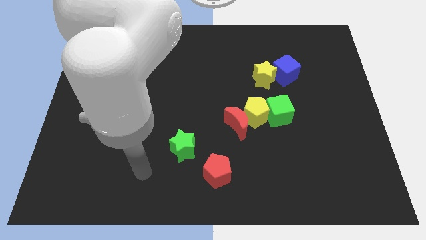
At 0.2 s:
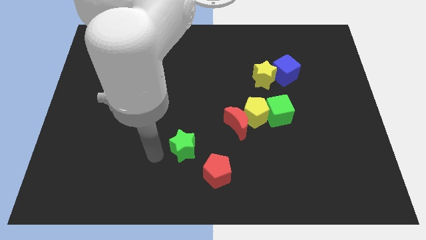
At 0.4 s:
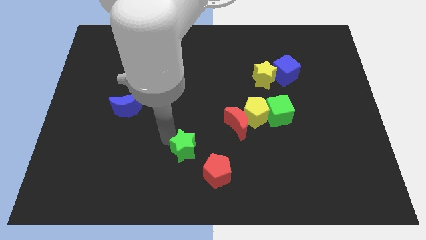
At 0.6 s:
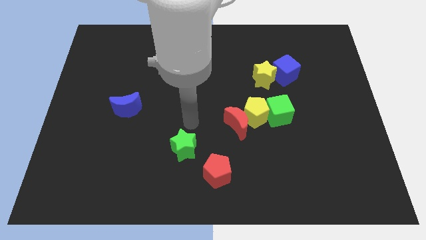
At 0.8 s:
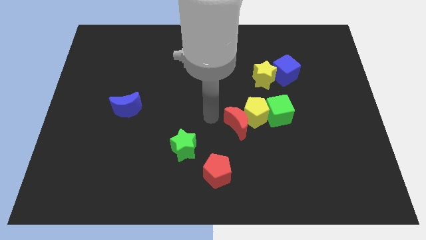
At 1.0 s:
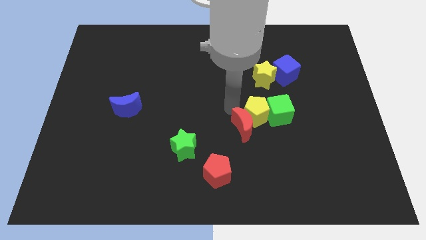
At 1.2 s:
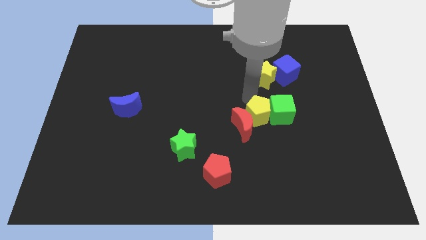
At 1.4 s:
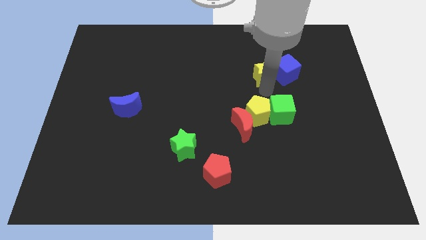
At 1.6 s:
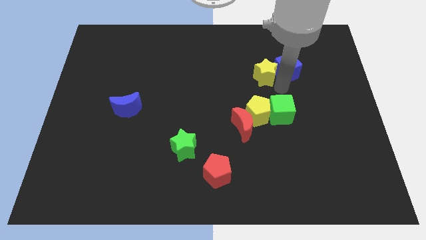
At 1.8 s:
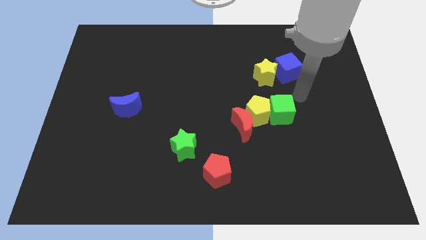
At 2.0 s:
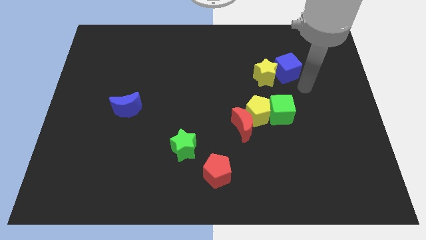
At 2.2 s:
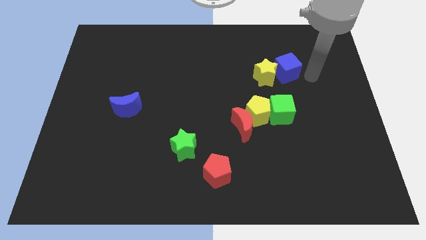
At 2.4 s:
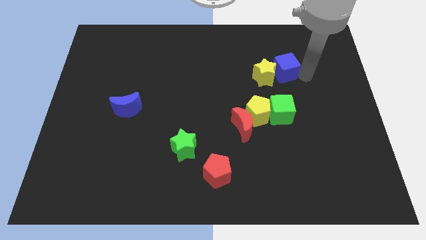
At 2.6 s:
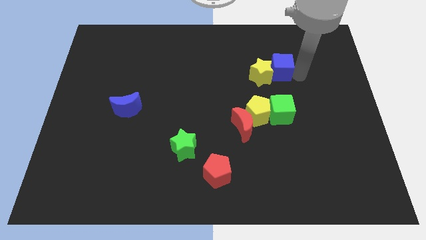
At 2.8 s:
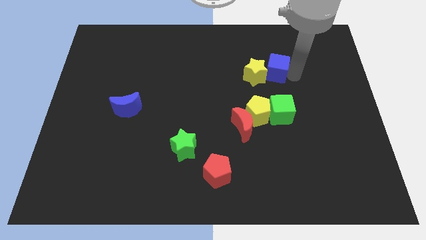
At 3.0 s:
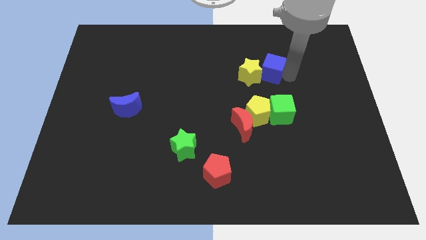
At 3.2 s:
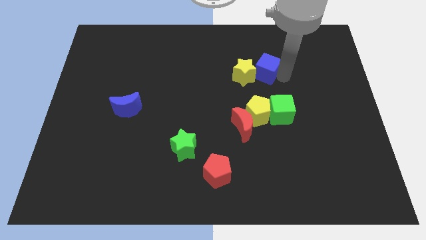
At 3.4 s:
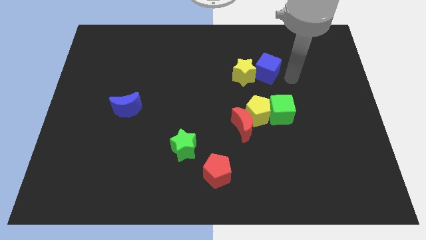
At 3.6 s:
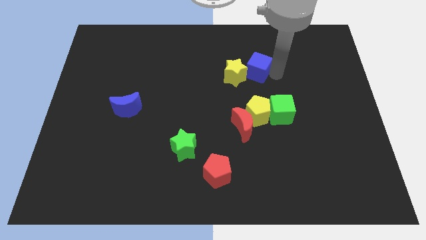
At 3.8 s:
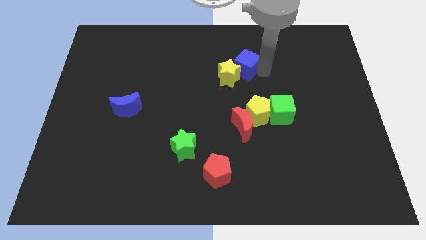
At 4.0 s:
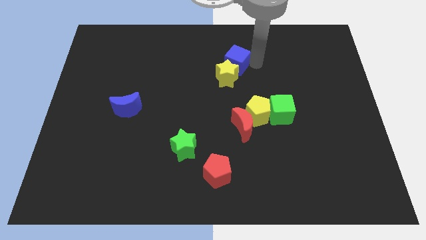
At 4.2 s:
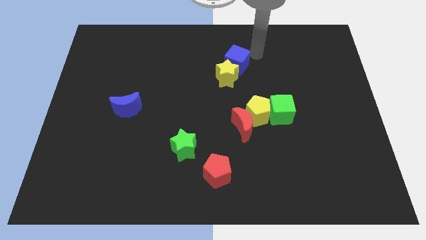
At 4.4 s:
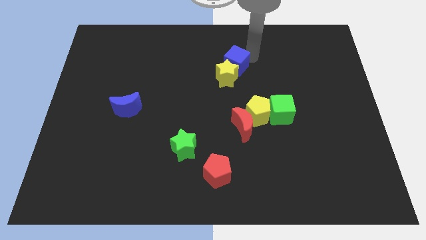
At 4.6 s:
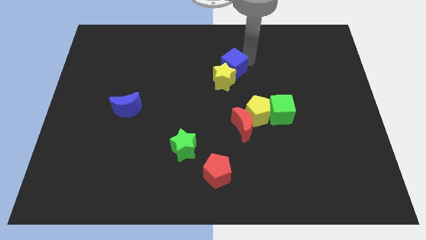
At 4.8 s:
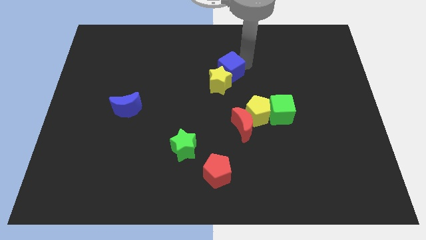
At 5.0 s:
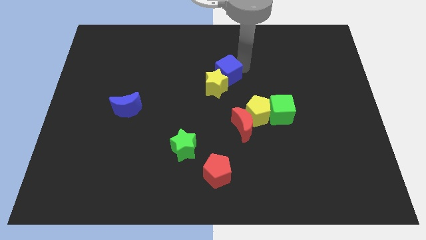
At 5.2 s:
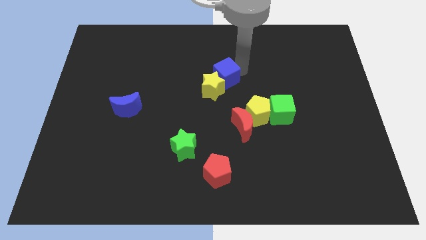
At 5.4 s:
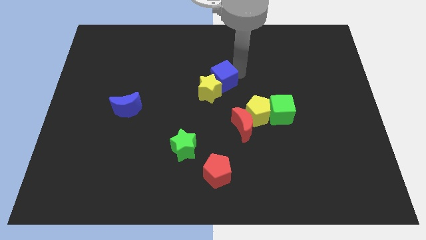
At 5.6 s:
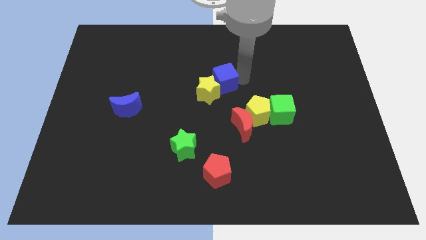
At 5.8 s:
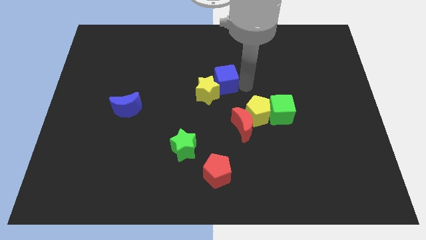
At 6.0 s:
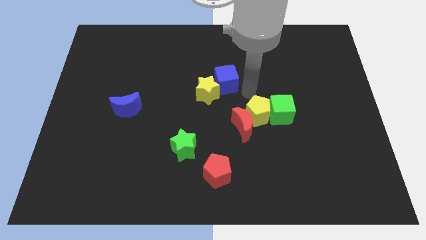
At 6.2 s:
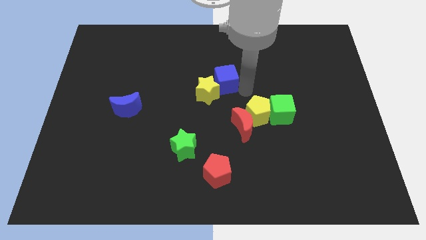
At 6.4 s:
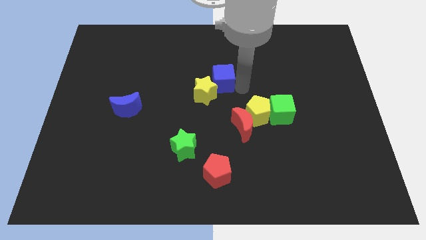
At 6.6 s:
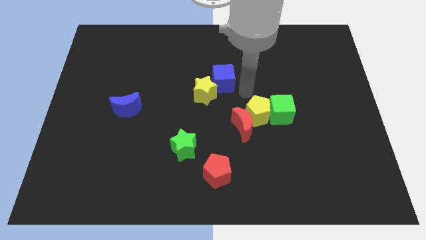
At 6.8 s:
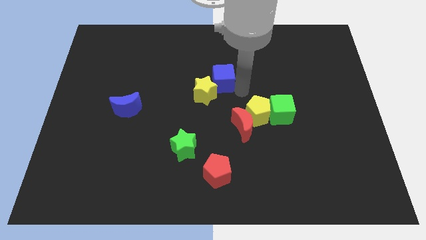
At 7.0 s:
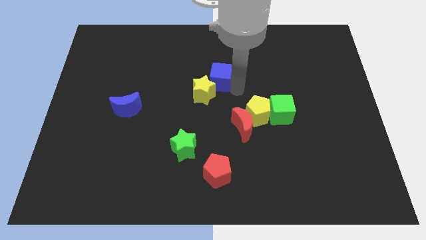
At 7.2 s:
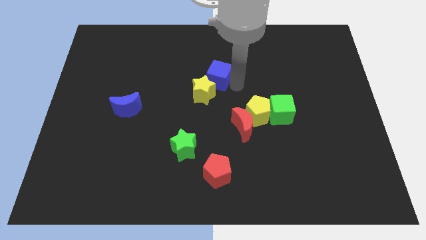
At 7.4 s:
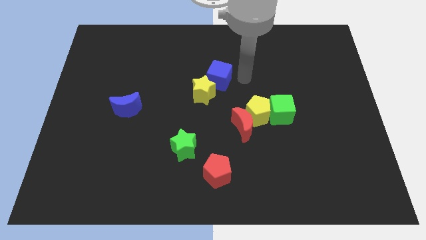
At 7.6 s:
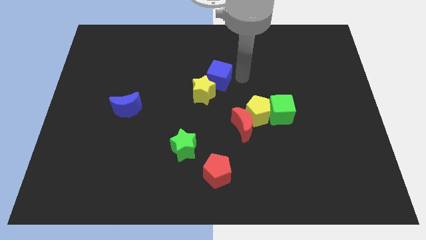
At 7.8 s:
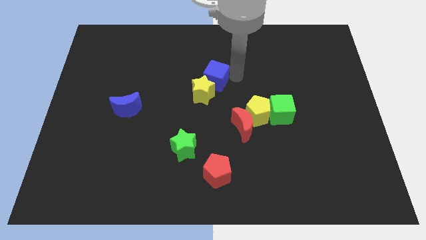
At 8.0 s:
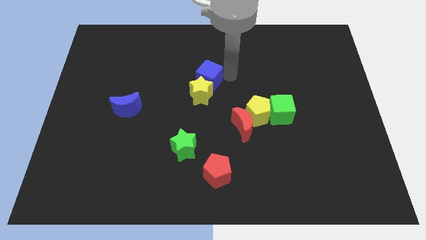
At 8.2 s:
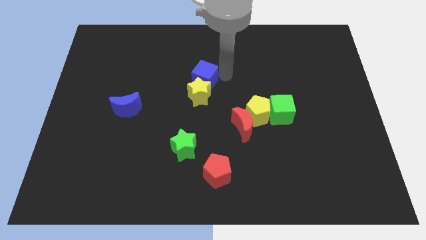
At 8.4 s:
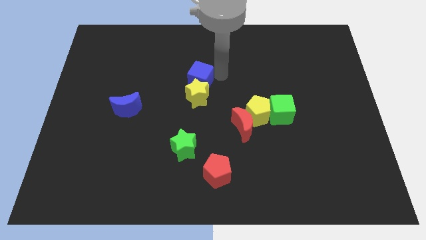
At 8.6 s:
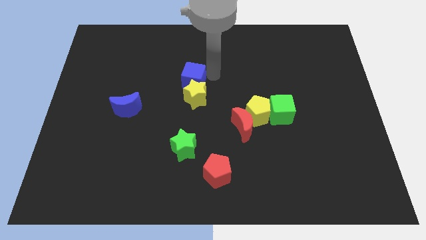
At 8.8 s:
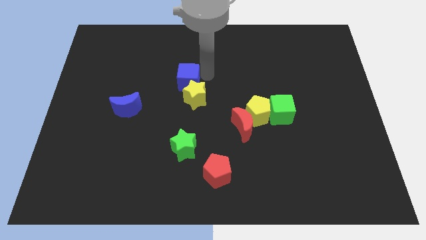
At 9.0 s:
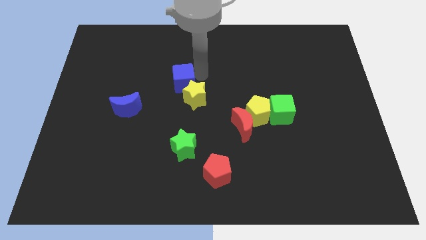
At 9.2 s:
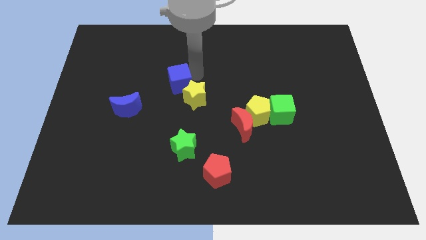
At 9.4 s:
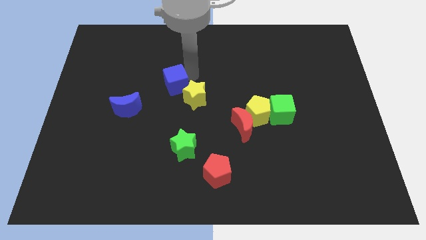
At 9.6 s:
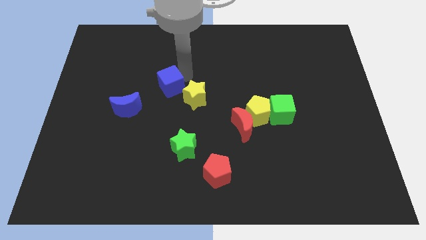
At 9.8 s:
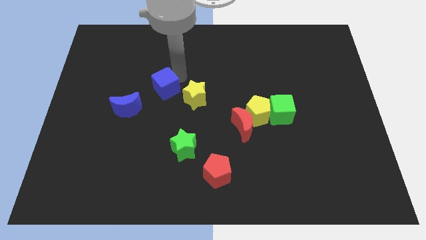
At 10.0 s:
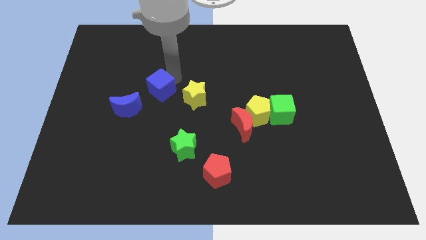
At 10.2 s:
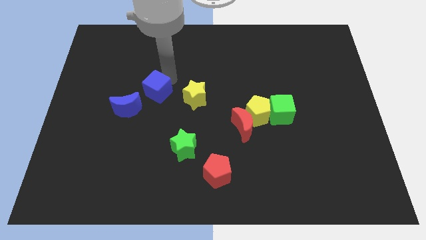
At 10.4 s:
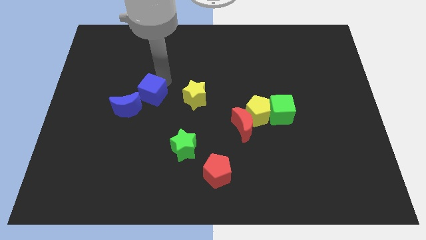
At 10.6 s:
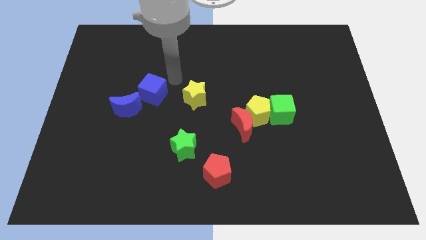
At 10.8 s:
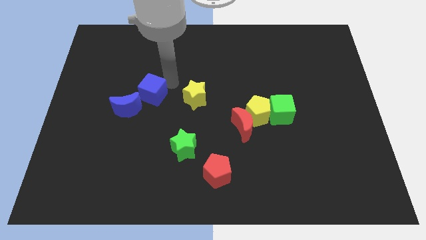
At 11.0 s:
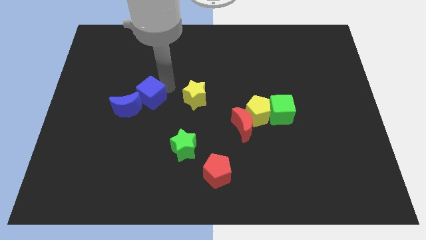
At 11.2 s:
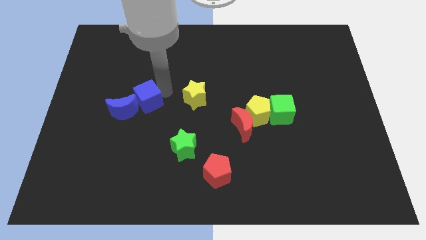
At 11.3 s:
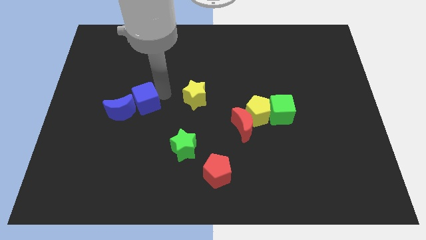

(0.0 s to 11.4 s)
move the blue cube close to the blue moon

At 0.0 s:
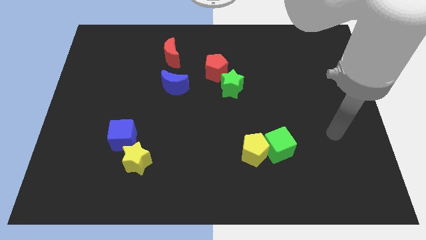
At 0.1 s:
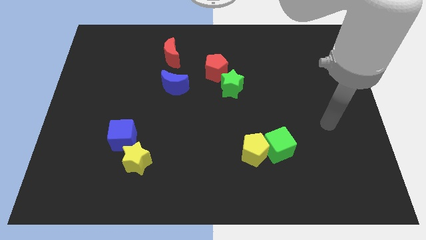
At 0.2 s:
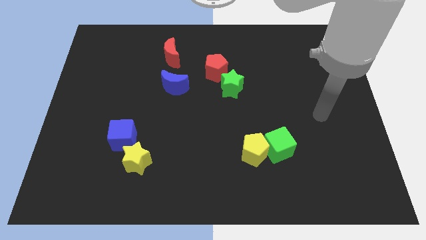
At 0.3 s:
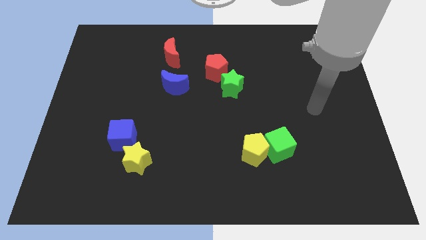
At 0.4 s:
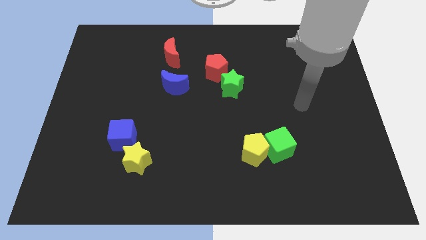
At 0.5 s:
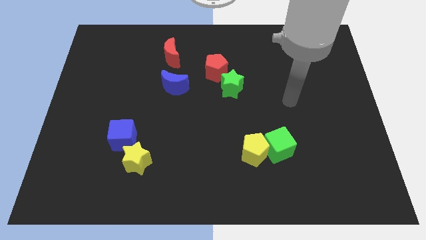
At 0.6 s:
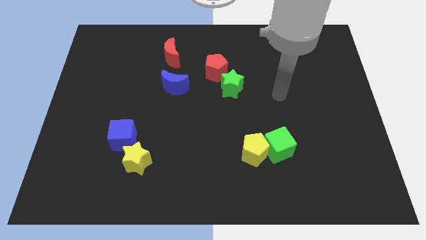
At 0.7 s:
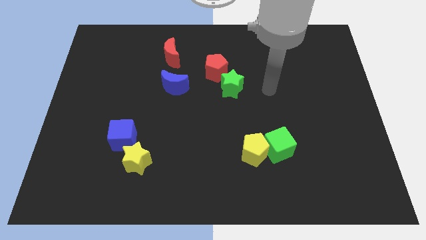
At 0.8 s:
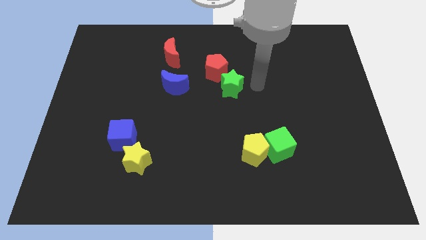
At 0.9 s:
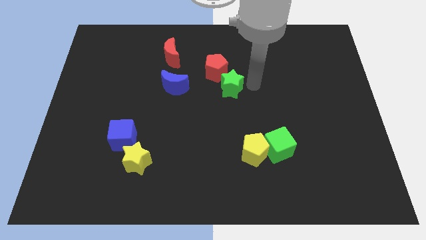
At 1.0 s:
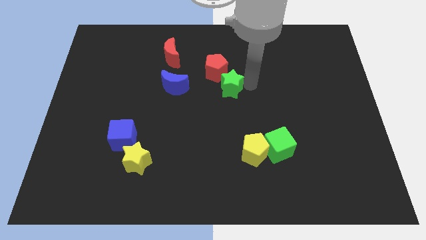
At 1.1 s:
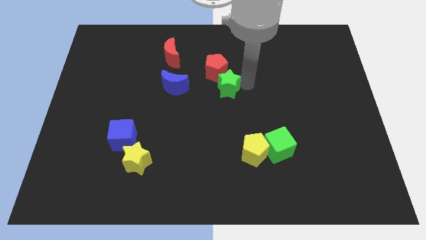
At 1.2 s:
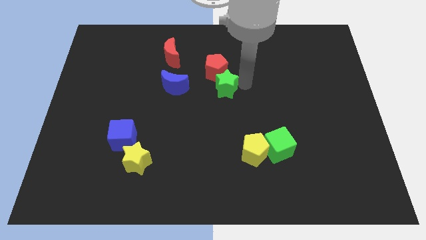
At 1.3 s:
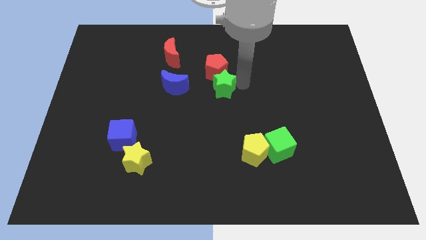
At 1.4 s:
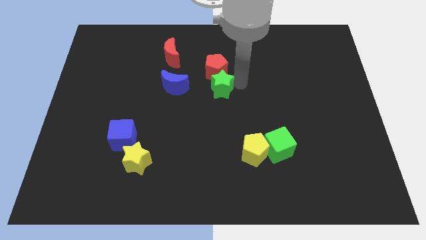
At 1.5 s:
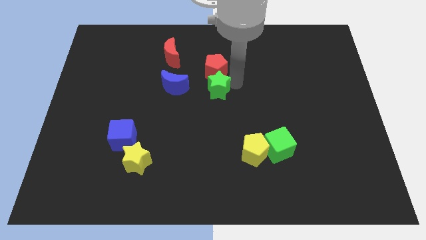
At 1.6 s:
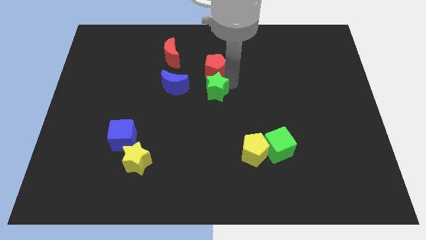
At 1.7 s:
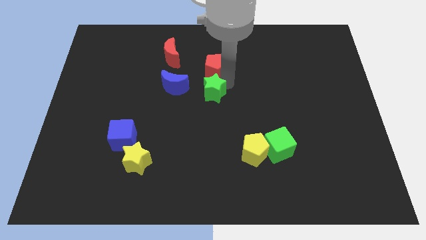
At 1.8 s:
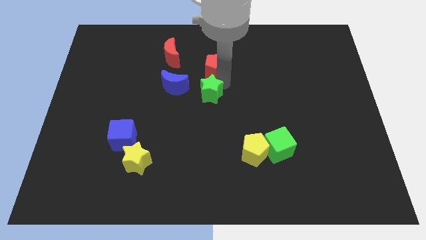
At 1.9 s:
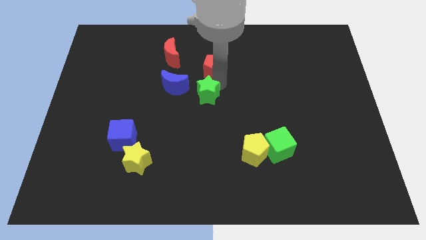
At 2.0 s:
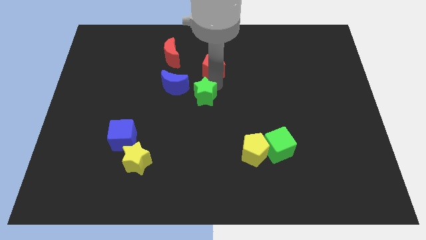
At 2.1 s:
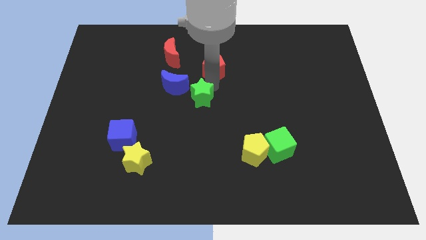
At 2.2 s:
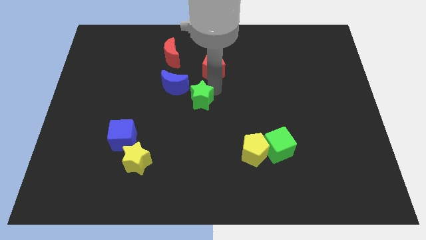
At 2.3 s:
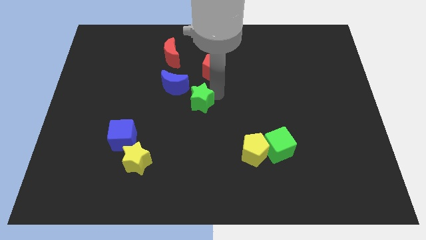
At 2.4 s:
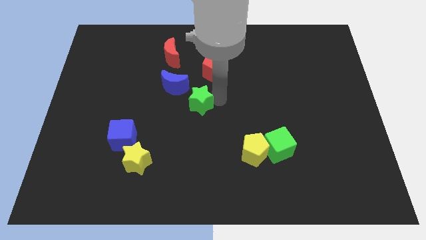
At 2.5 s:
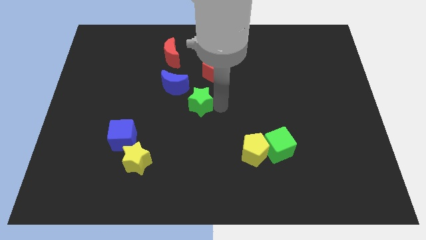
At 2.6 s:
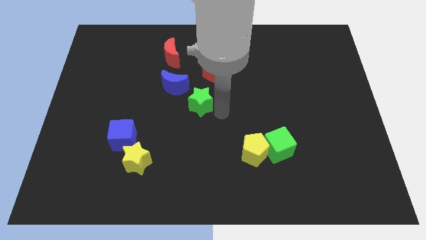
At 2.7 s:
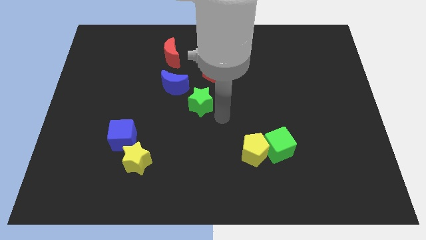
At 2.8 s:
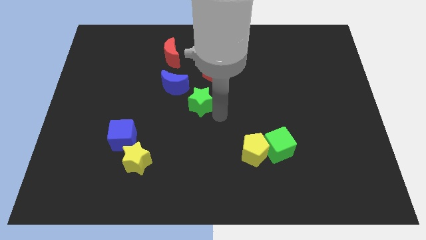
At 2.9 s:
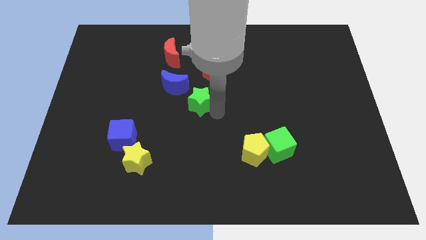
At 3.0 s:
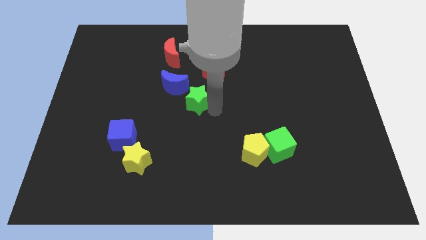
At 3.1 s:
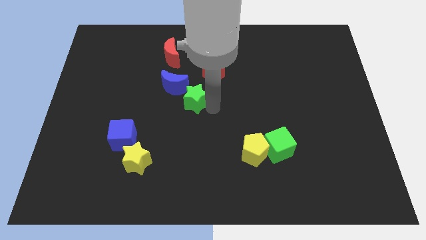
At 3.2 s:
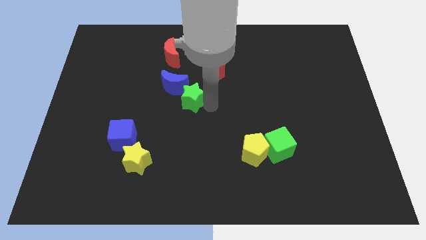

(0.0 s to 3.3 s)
put the green star towards the blue moon
